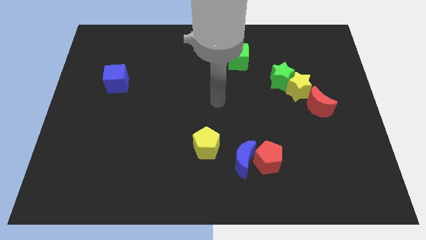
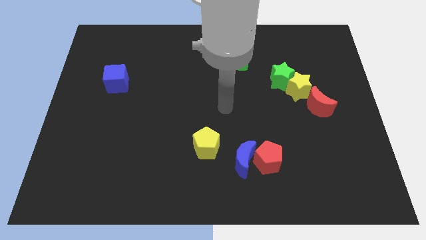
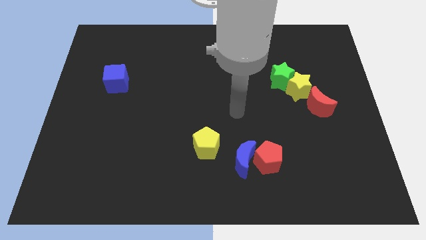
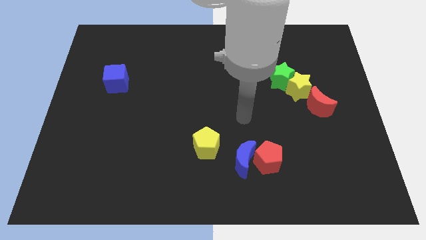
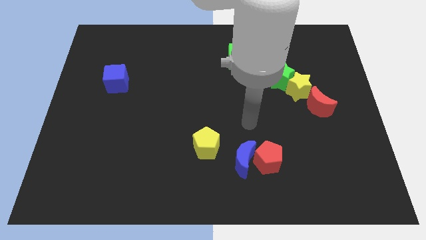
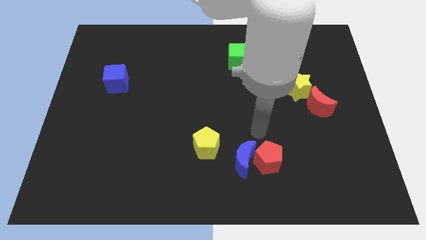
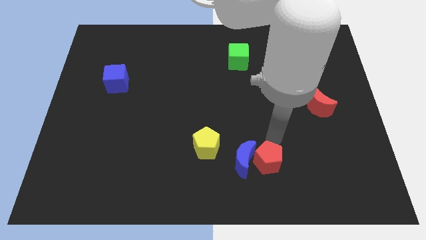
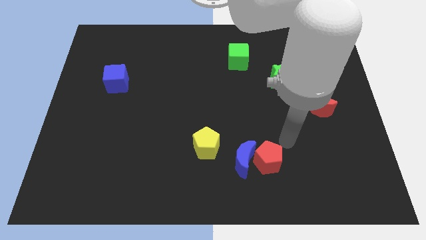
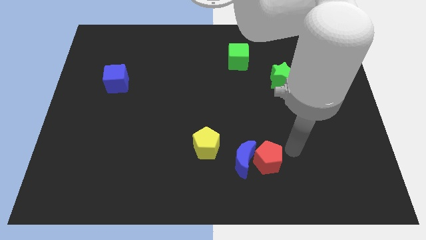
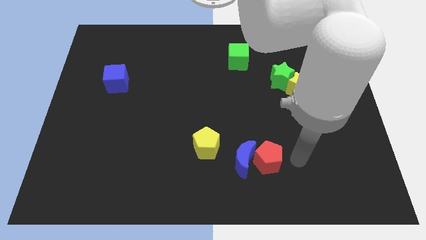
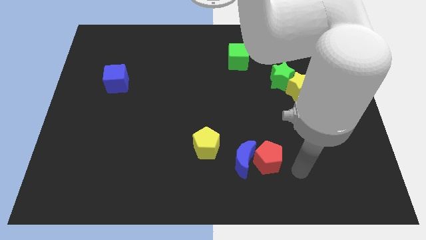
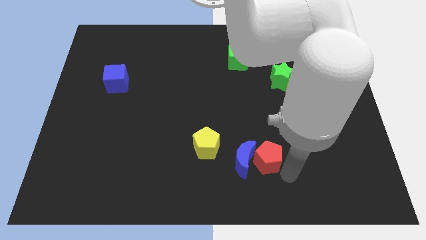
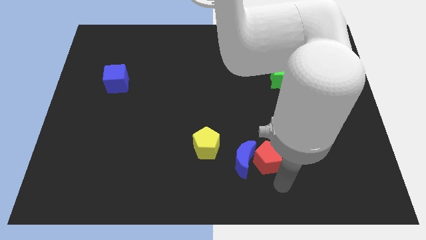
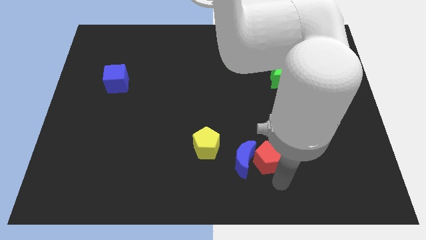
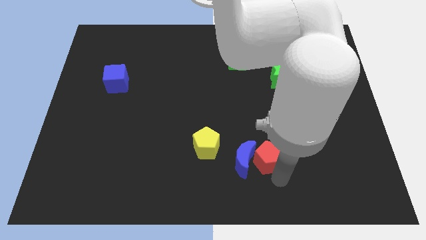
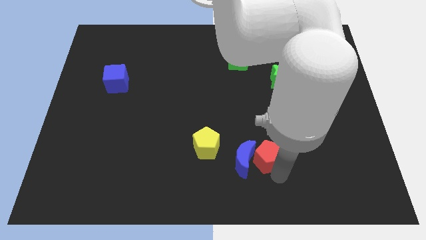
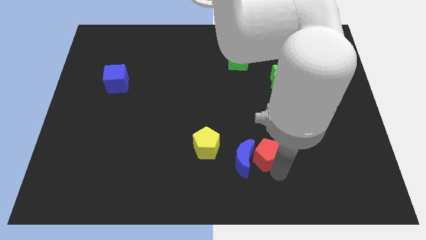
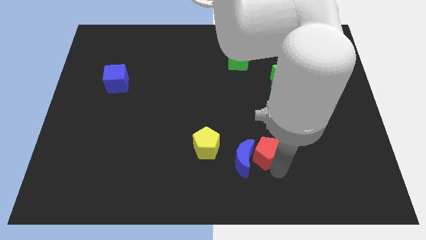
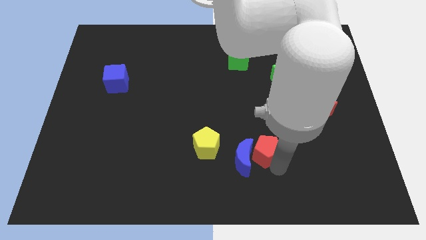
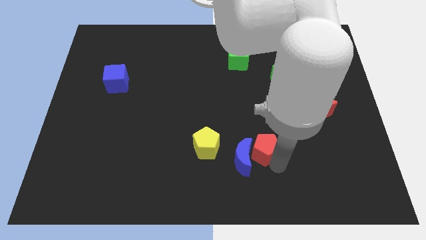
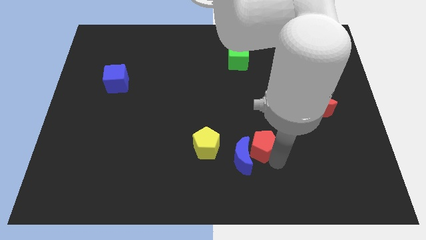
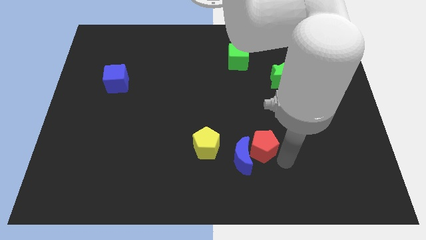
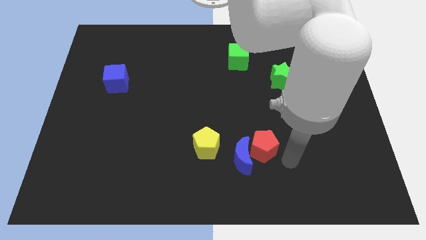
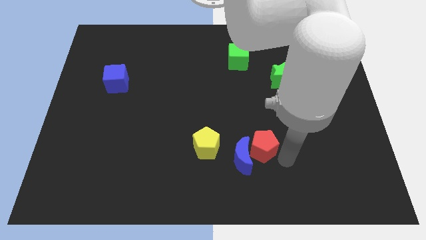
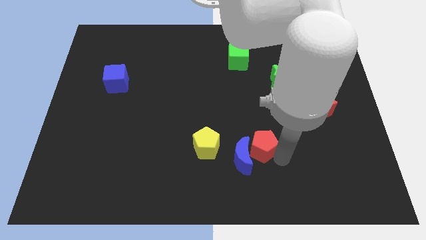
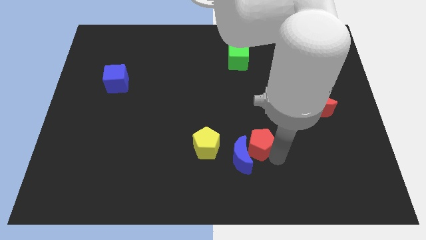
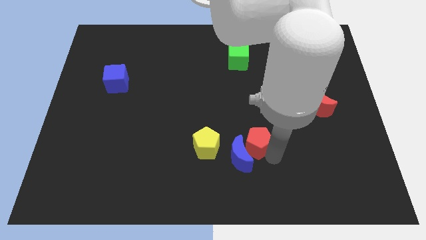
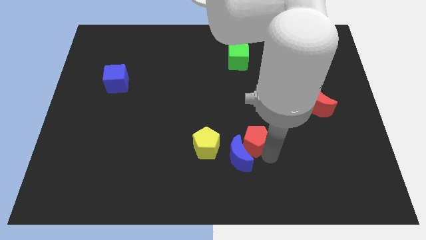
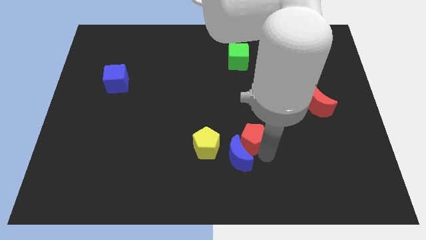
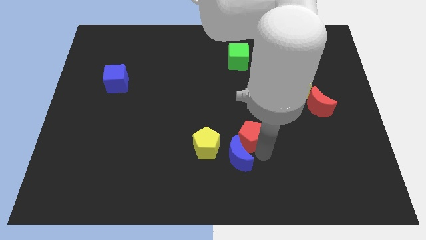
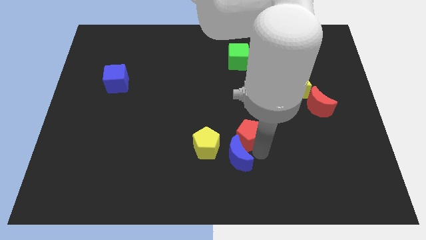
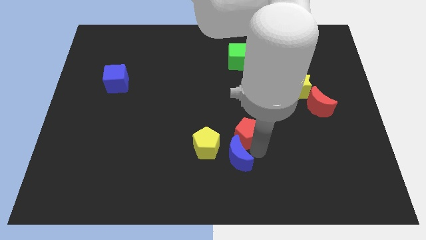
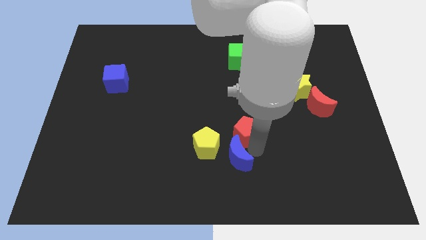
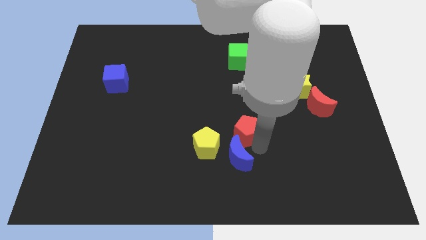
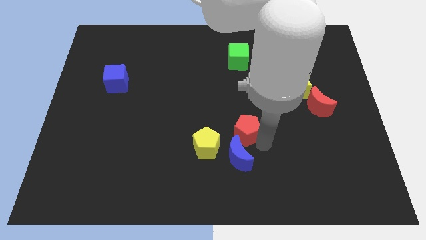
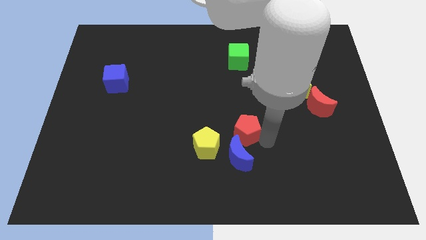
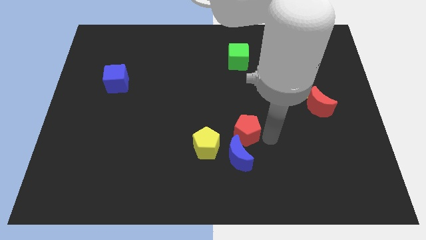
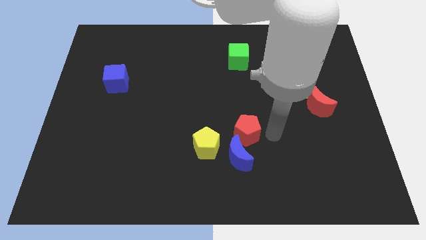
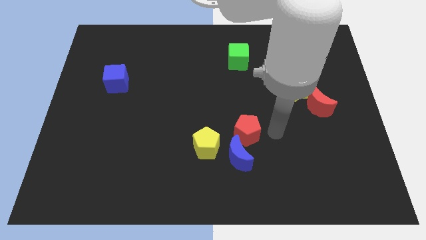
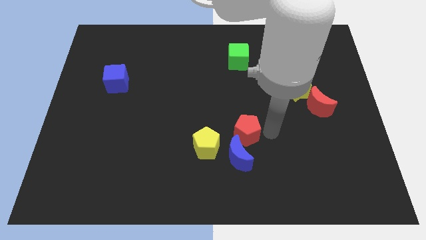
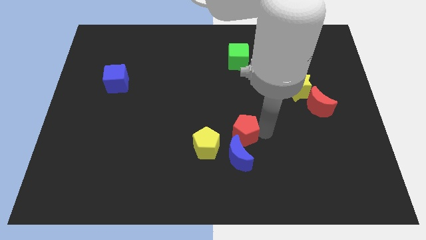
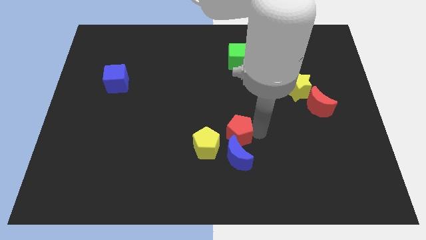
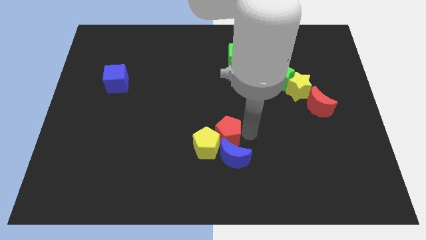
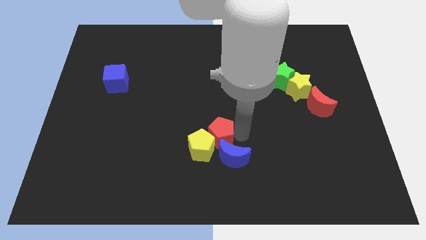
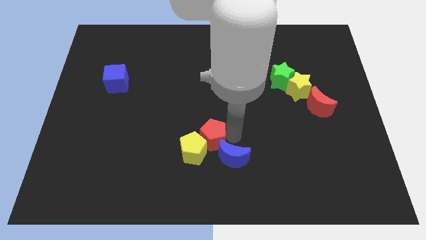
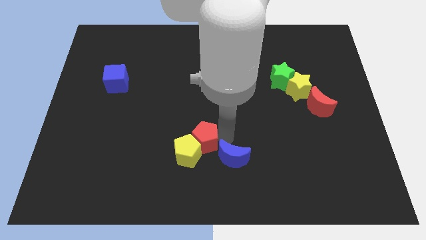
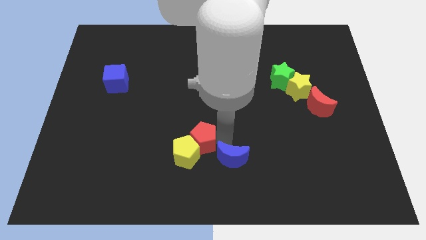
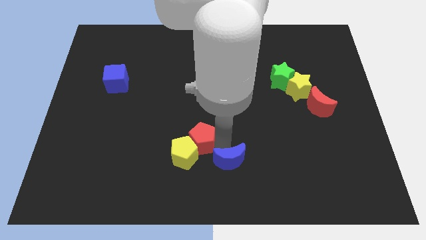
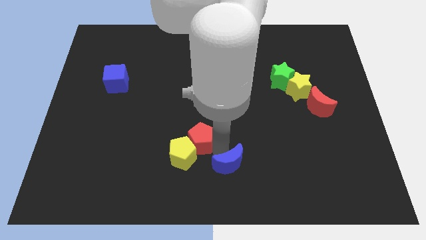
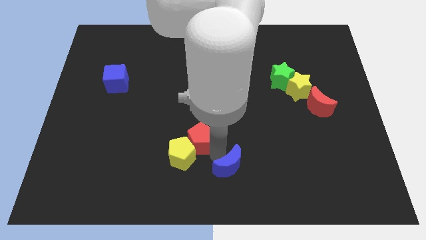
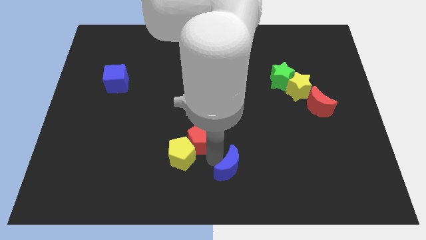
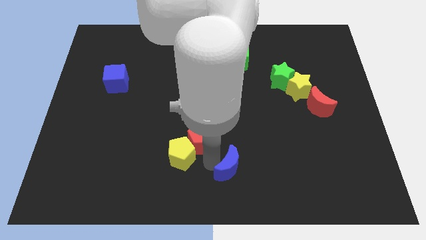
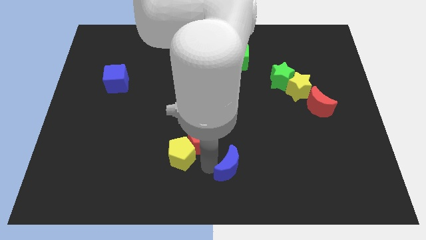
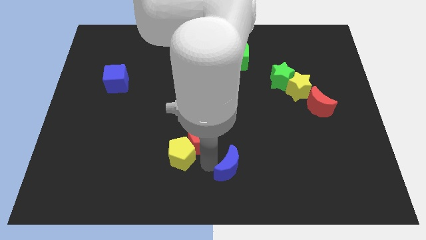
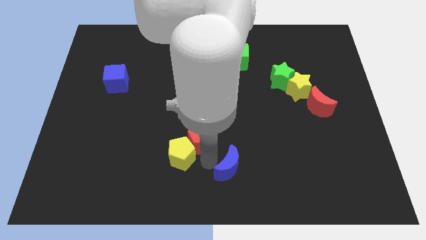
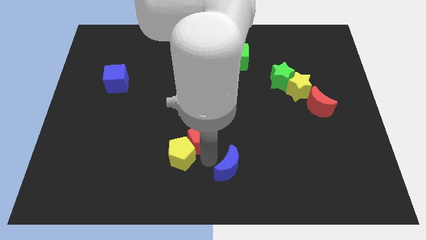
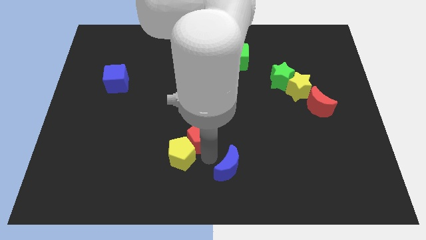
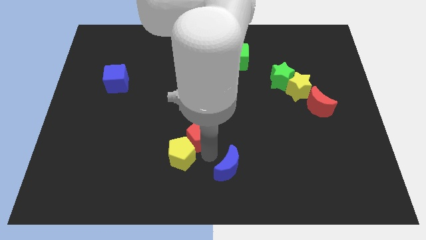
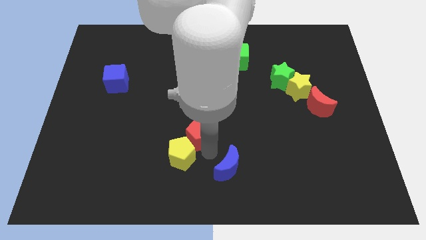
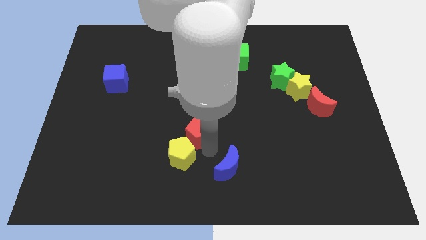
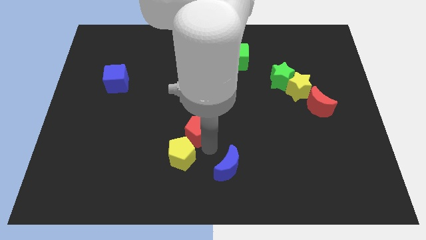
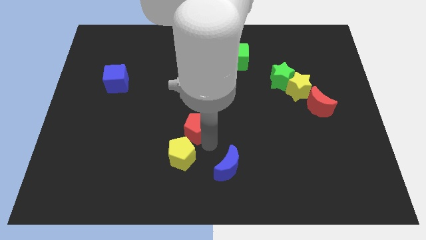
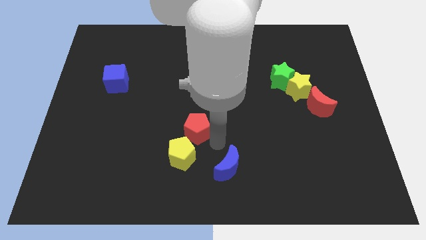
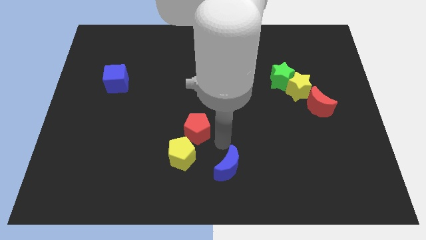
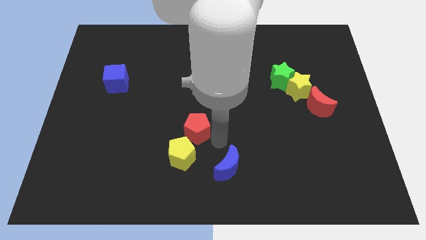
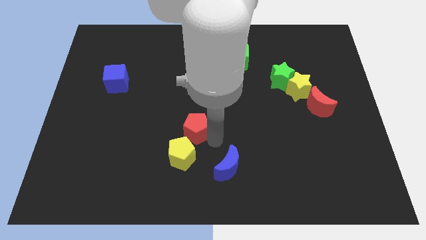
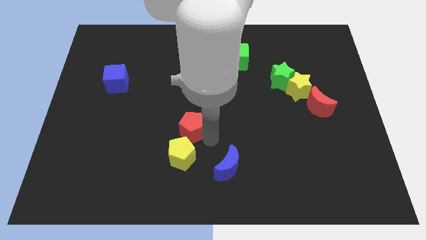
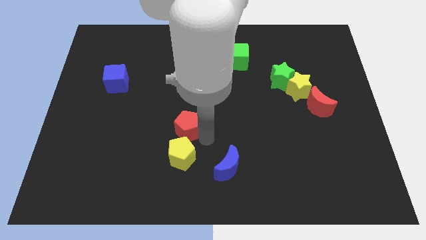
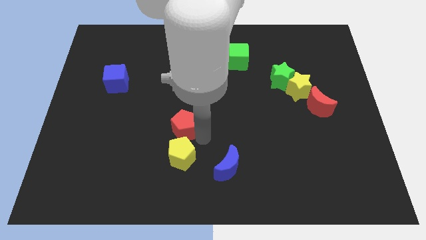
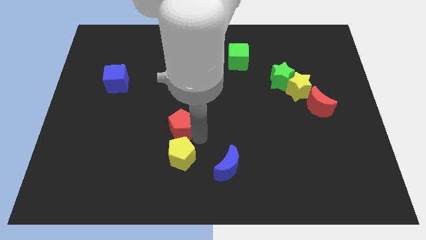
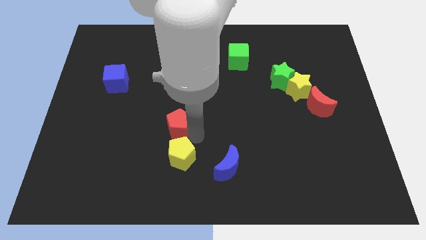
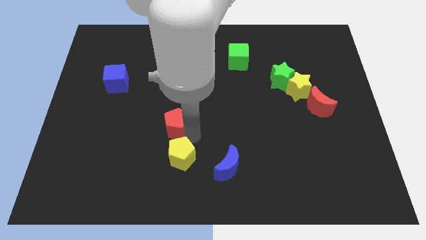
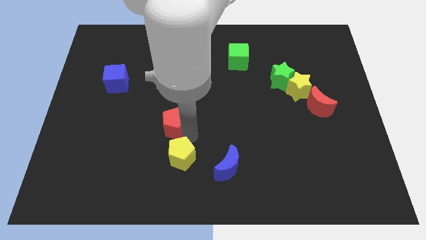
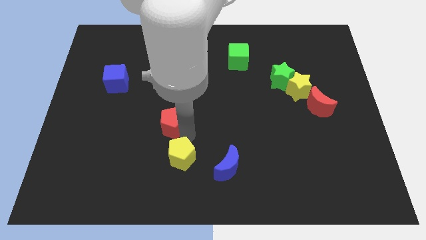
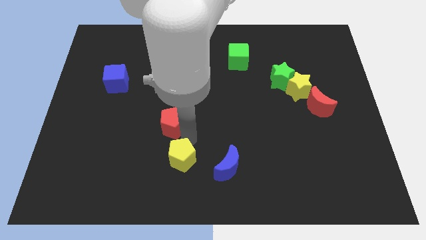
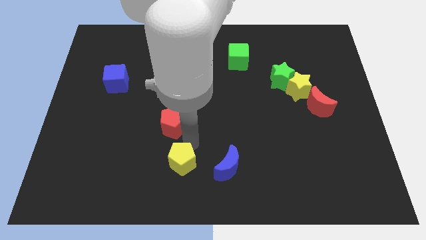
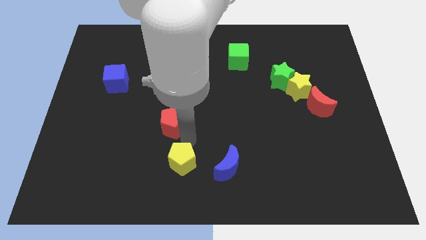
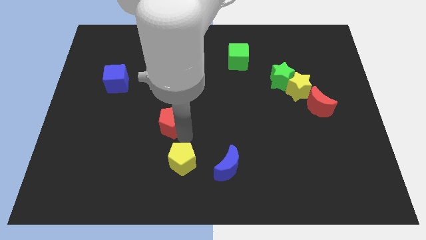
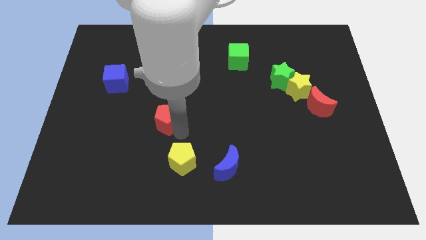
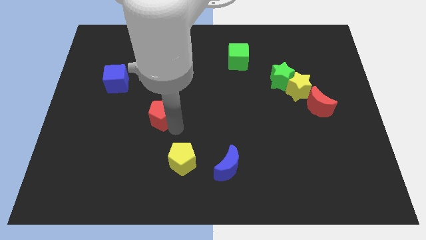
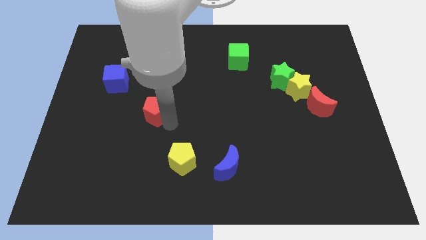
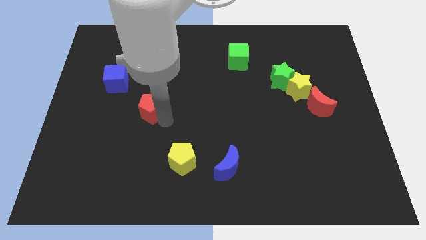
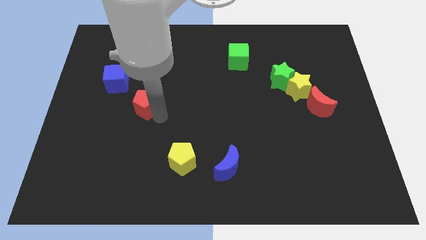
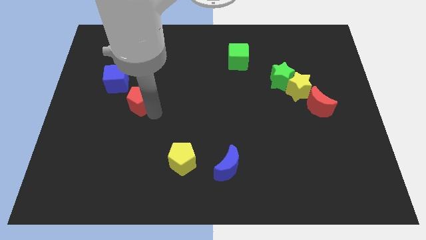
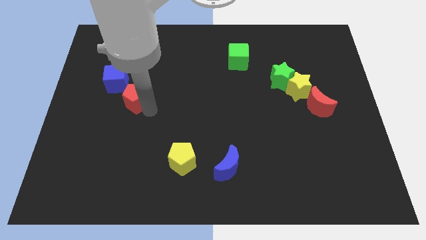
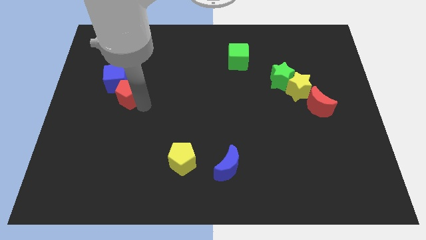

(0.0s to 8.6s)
put the red pentagon next to the blue cube
